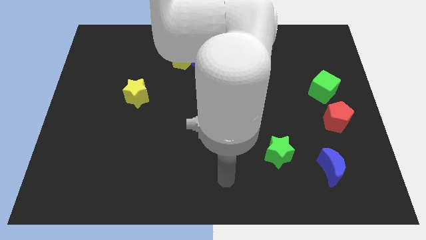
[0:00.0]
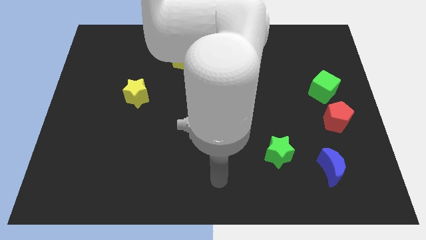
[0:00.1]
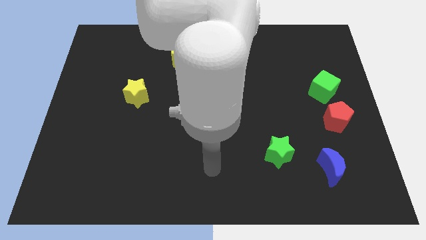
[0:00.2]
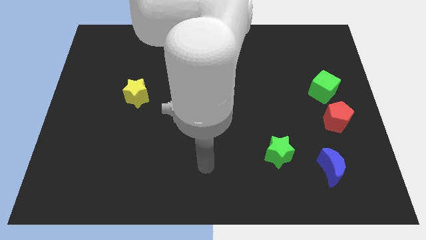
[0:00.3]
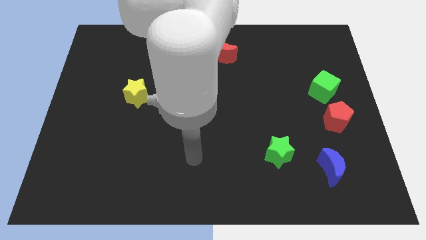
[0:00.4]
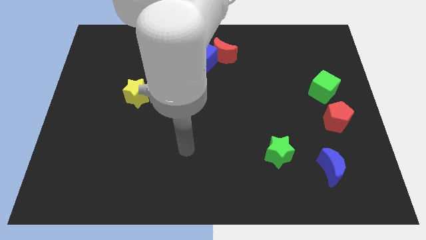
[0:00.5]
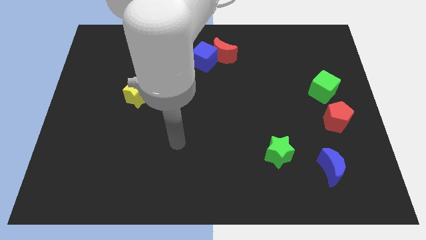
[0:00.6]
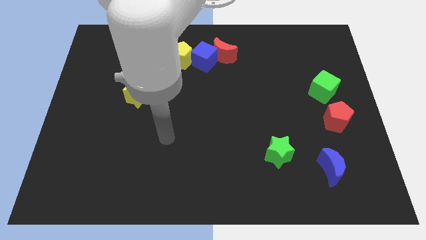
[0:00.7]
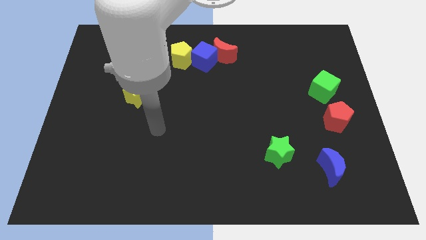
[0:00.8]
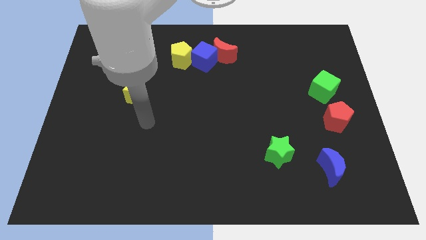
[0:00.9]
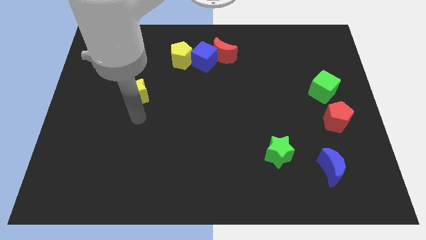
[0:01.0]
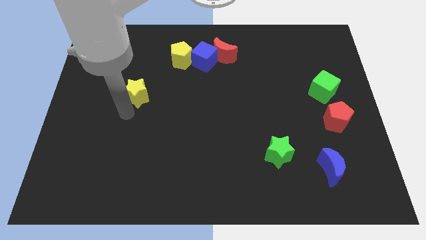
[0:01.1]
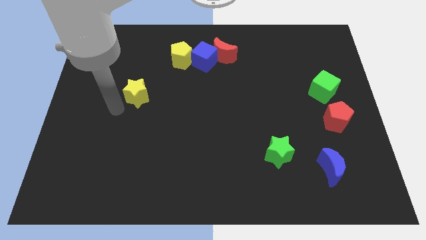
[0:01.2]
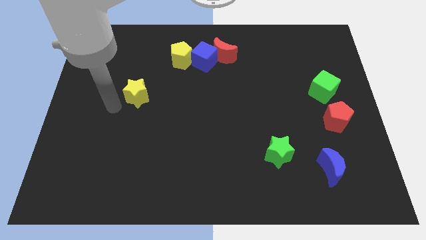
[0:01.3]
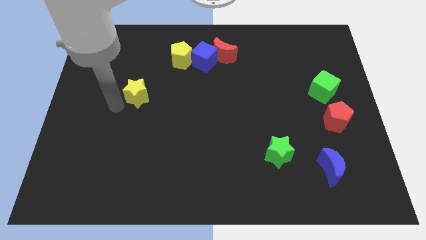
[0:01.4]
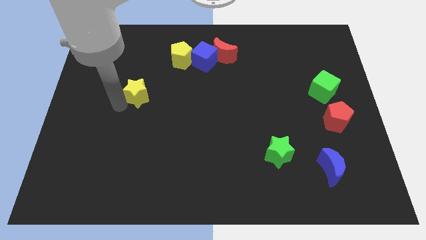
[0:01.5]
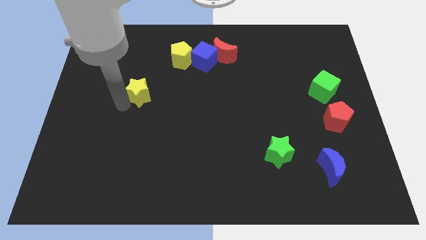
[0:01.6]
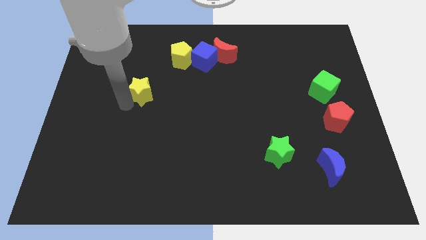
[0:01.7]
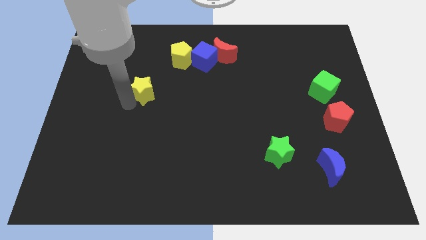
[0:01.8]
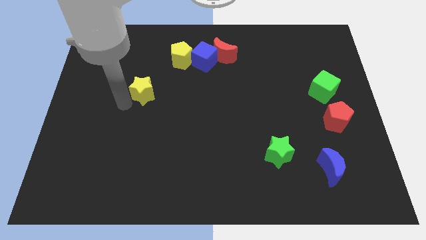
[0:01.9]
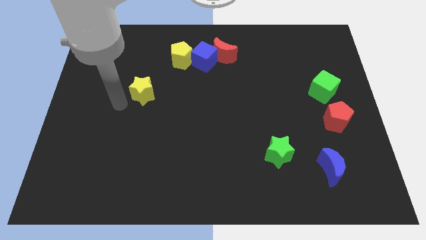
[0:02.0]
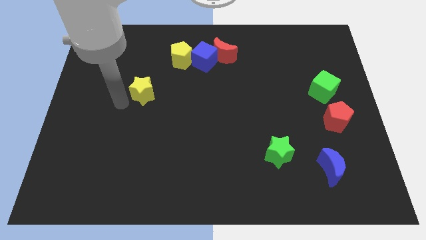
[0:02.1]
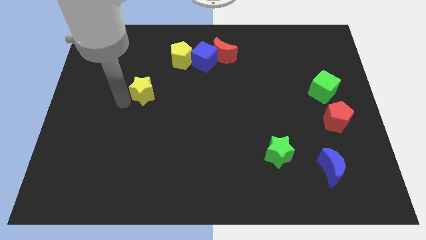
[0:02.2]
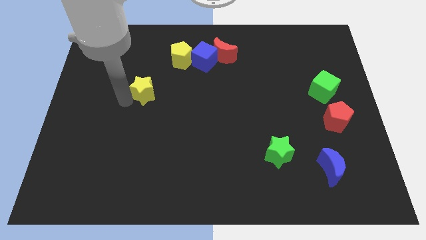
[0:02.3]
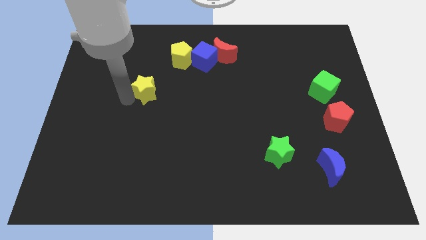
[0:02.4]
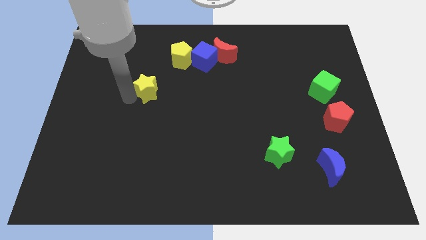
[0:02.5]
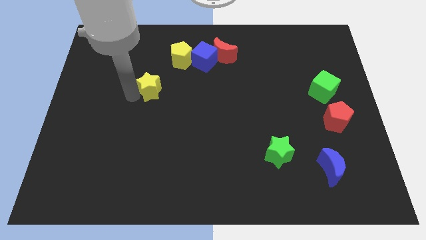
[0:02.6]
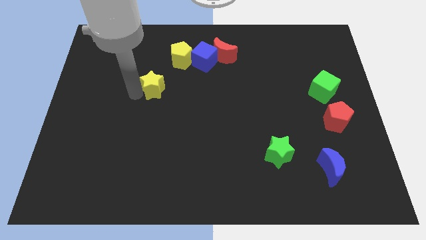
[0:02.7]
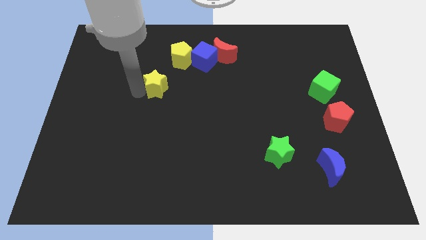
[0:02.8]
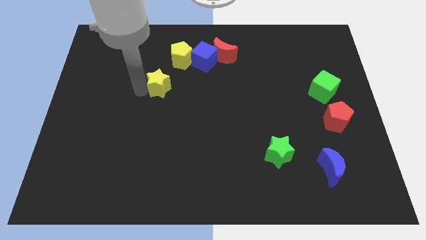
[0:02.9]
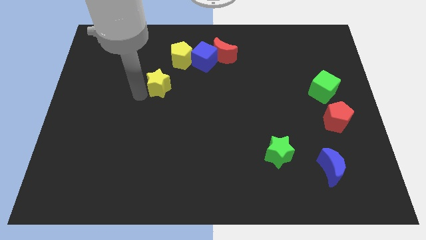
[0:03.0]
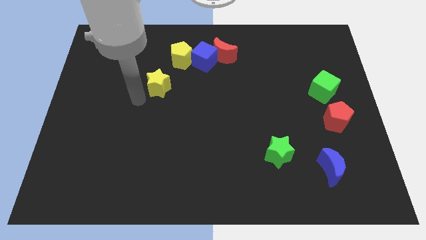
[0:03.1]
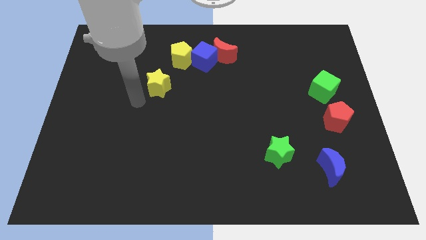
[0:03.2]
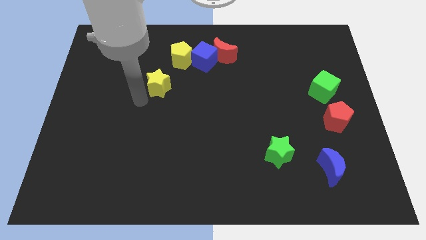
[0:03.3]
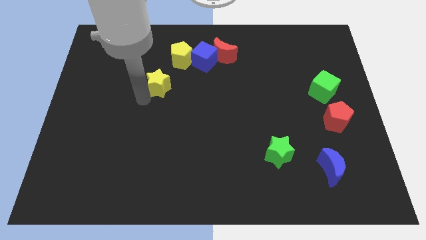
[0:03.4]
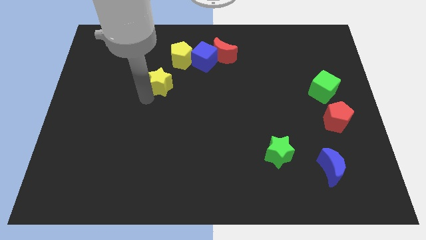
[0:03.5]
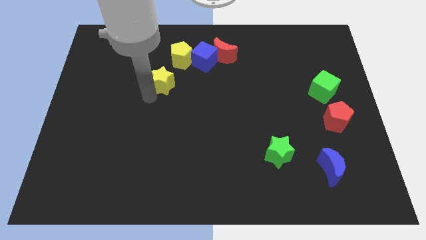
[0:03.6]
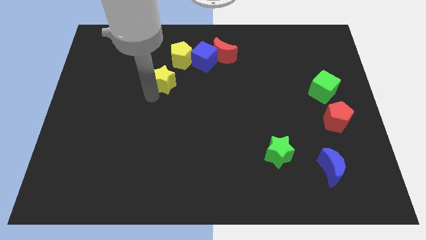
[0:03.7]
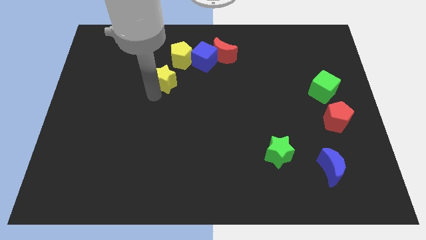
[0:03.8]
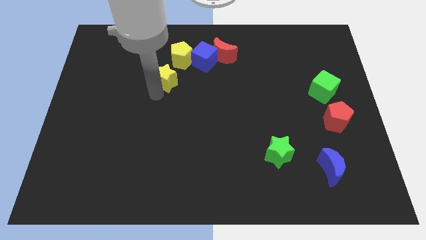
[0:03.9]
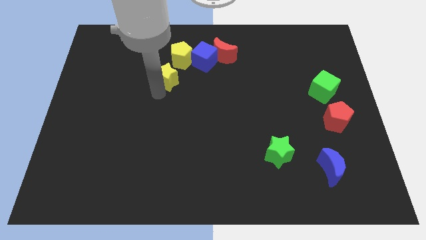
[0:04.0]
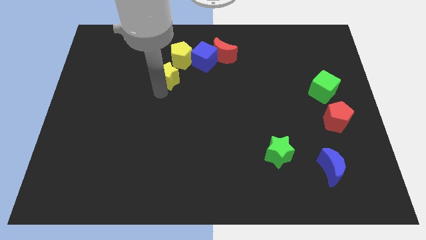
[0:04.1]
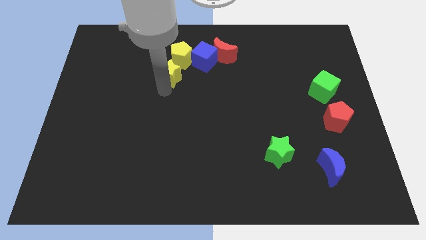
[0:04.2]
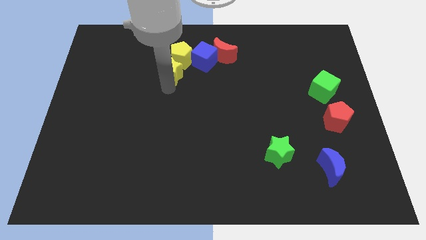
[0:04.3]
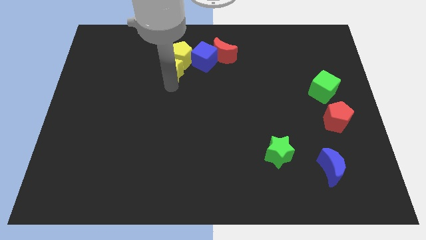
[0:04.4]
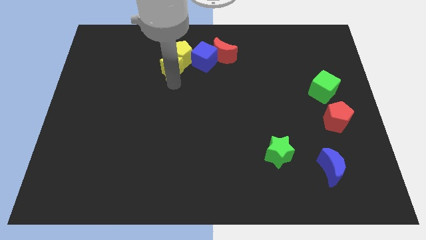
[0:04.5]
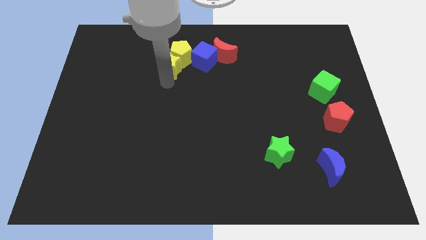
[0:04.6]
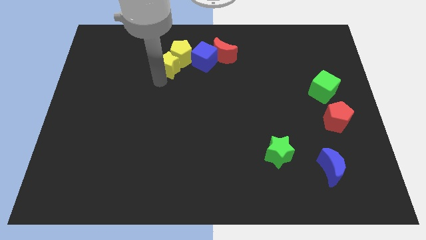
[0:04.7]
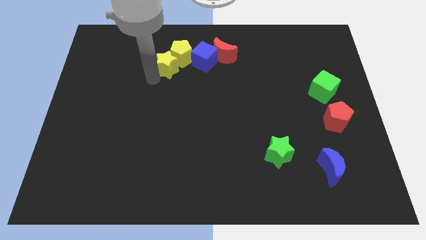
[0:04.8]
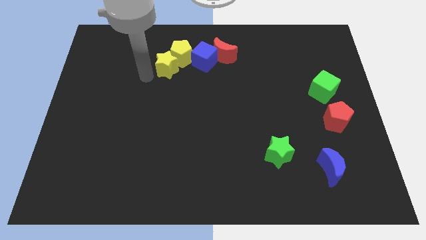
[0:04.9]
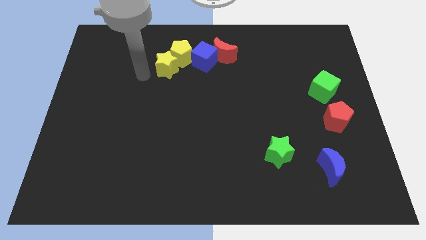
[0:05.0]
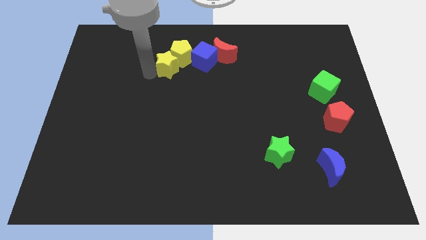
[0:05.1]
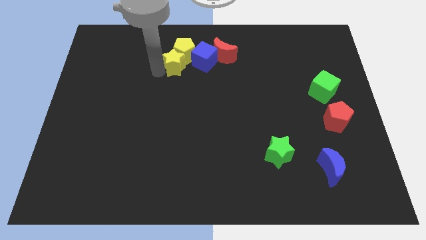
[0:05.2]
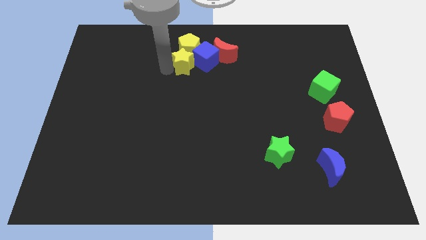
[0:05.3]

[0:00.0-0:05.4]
push the yellow star towards the blue cube

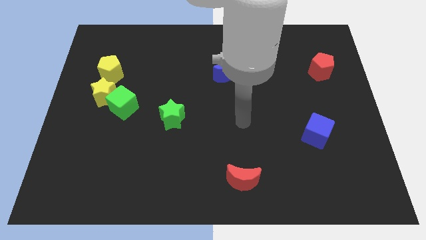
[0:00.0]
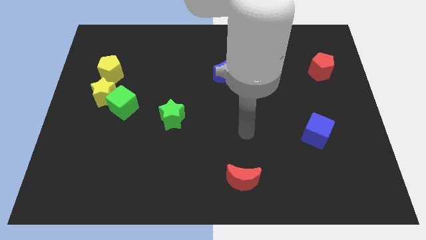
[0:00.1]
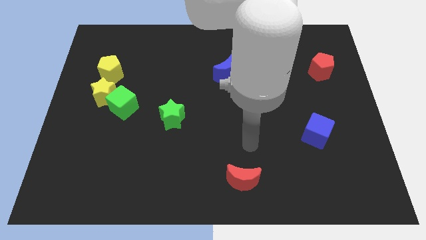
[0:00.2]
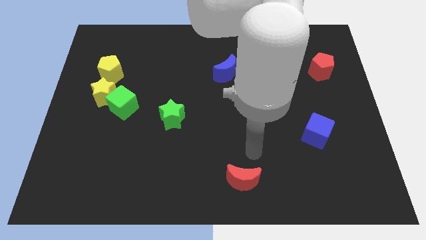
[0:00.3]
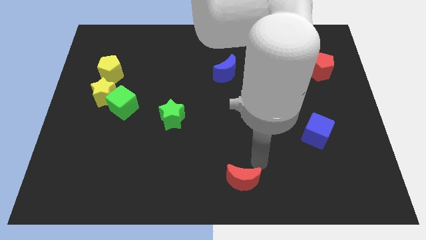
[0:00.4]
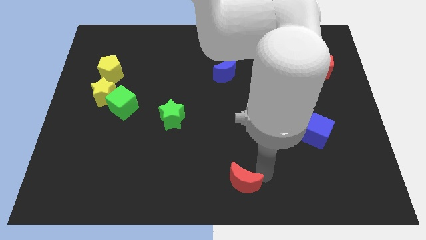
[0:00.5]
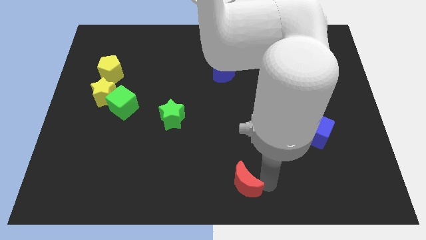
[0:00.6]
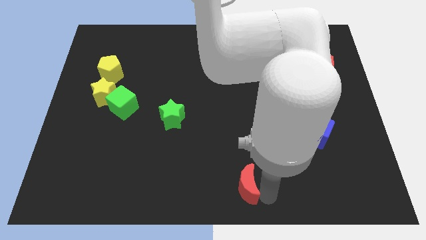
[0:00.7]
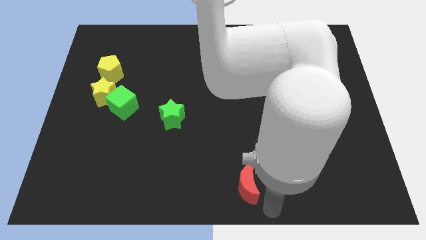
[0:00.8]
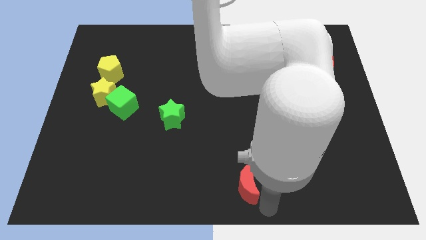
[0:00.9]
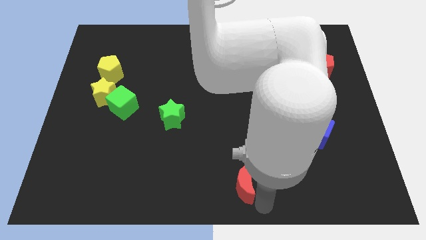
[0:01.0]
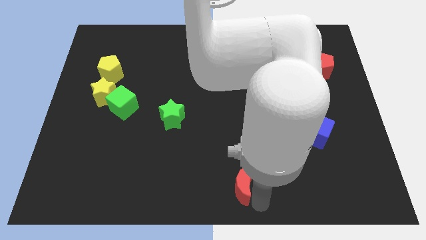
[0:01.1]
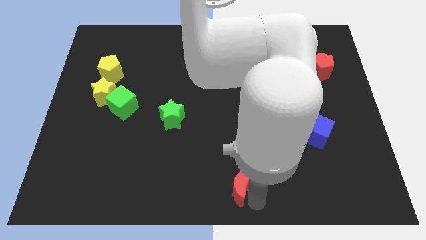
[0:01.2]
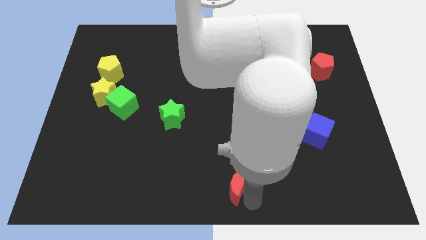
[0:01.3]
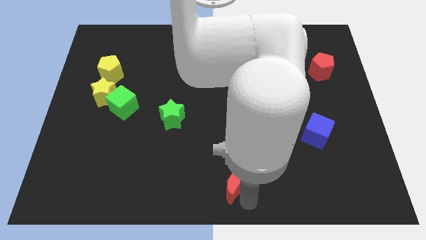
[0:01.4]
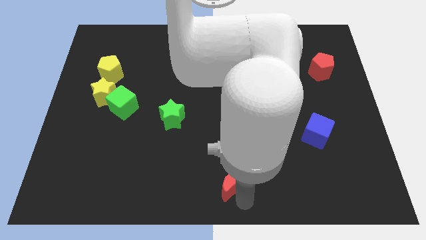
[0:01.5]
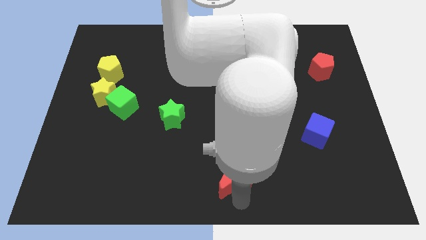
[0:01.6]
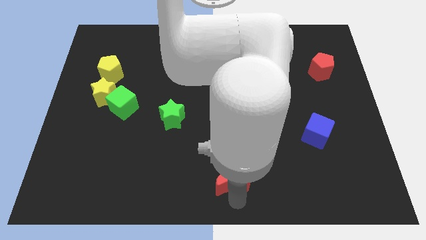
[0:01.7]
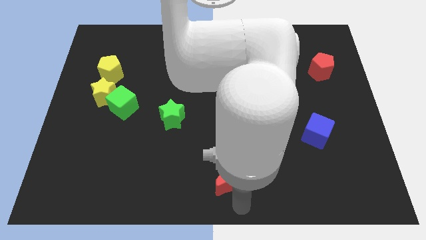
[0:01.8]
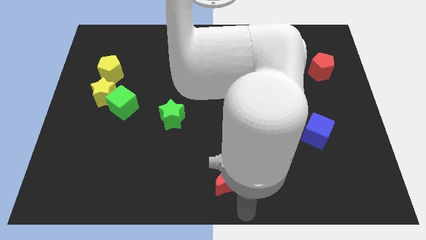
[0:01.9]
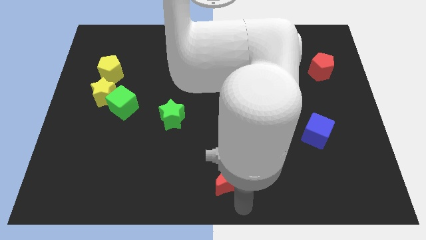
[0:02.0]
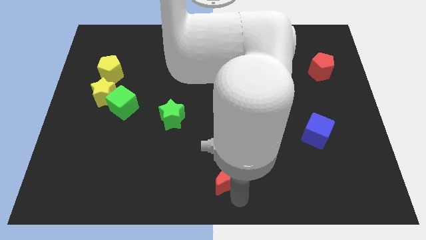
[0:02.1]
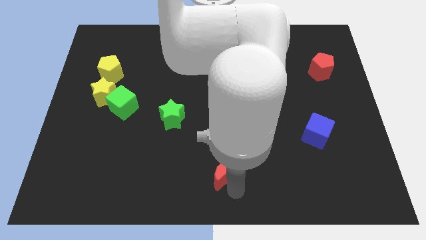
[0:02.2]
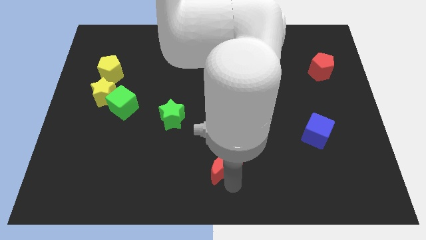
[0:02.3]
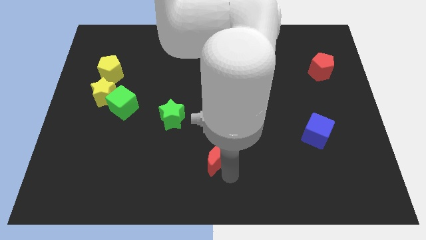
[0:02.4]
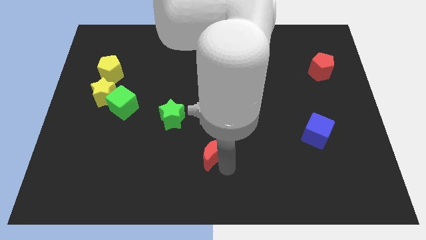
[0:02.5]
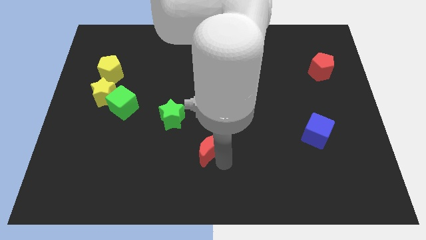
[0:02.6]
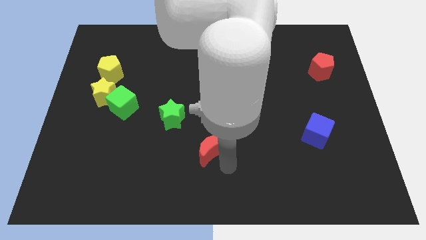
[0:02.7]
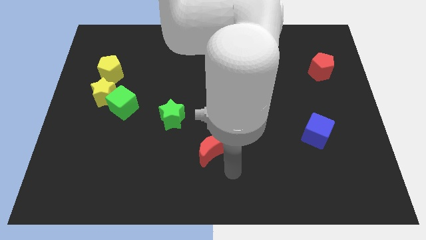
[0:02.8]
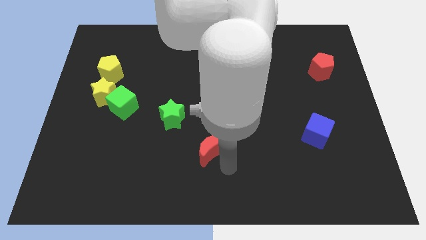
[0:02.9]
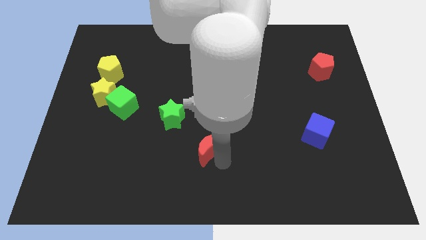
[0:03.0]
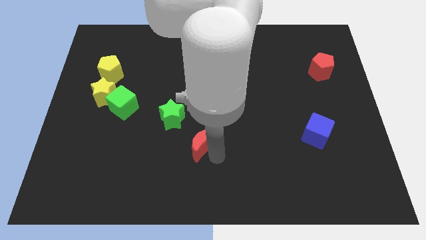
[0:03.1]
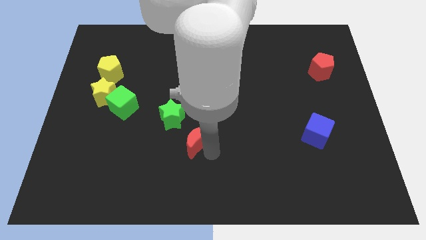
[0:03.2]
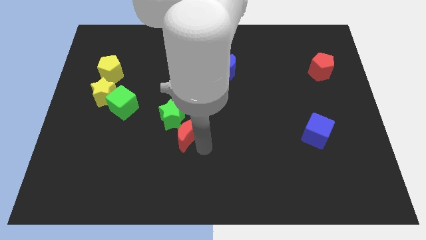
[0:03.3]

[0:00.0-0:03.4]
put the red moon towards the green star

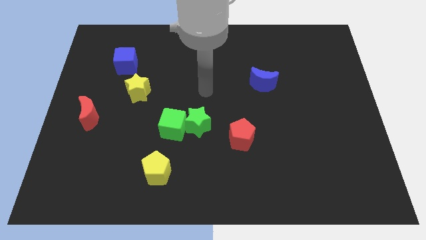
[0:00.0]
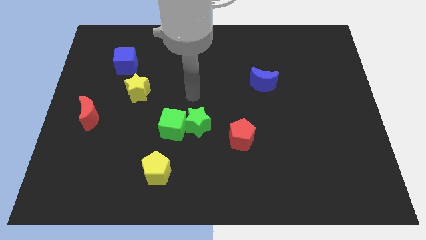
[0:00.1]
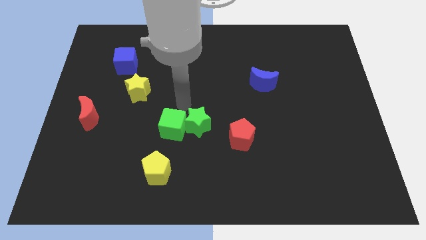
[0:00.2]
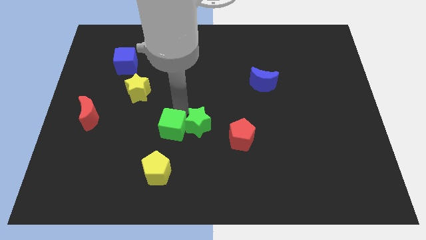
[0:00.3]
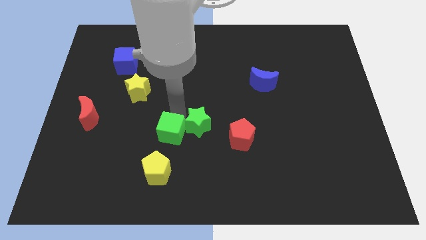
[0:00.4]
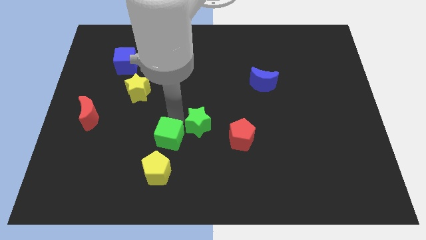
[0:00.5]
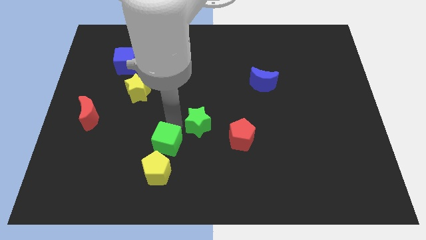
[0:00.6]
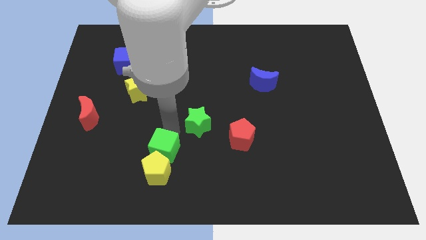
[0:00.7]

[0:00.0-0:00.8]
slide the green cube towards the yellow pentagon
